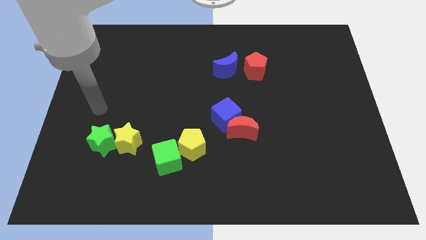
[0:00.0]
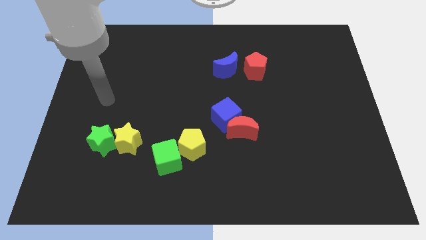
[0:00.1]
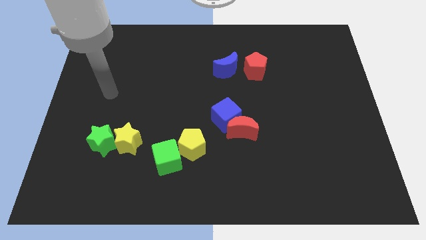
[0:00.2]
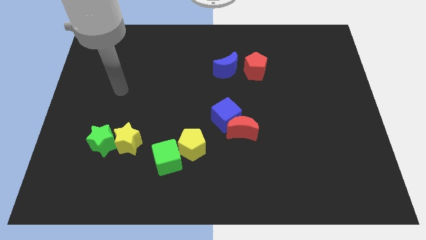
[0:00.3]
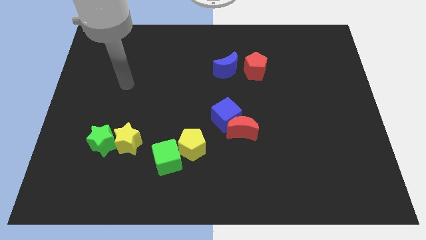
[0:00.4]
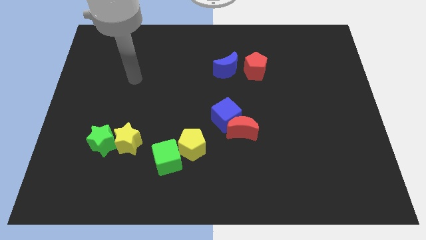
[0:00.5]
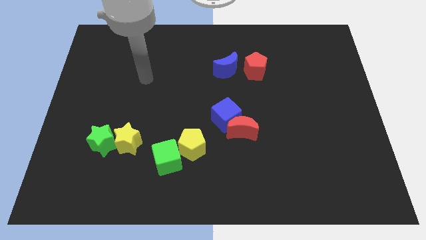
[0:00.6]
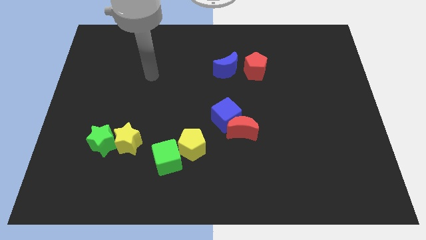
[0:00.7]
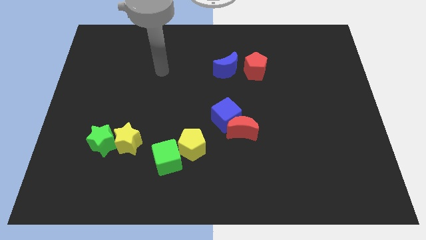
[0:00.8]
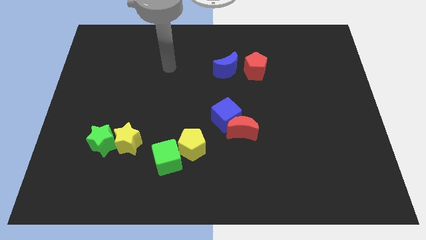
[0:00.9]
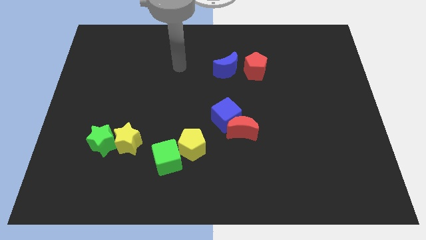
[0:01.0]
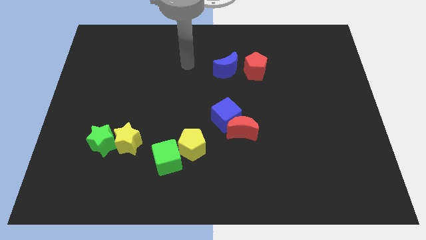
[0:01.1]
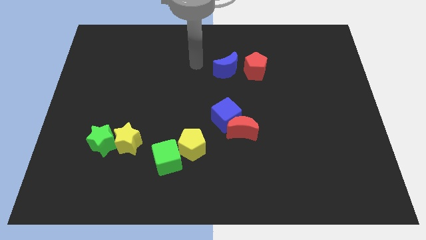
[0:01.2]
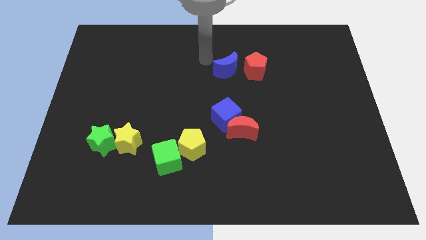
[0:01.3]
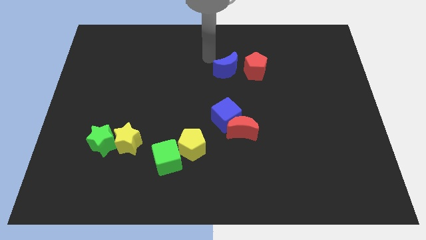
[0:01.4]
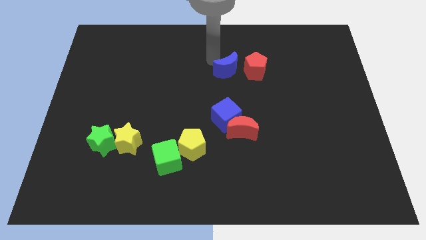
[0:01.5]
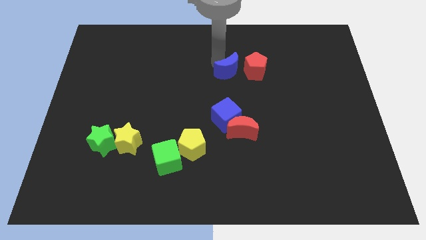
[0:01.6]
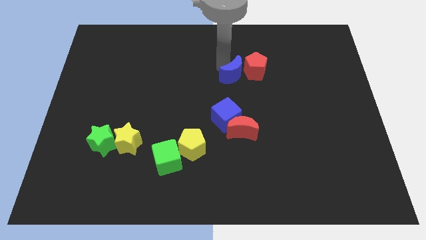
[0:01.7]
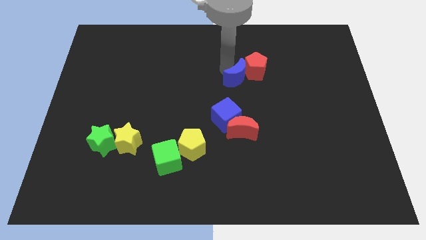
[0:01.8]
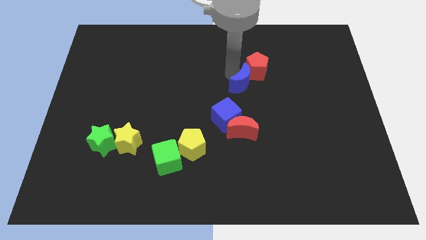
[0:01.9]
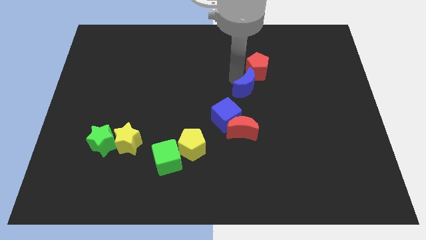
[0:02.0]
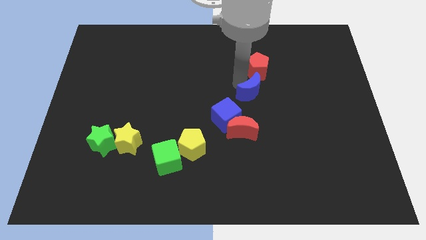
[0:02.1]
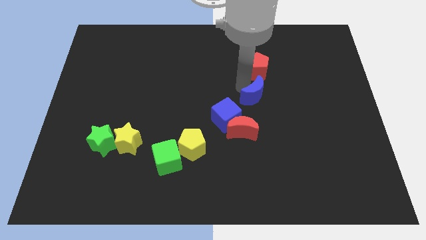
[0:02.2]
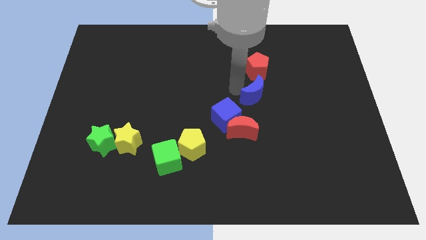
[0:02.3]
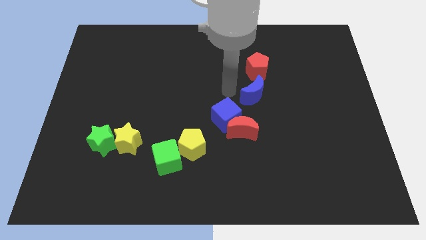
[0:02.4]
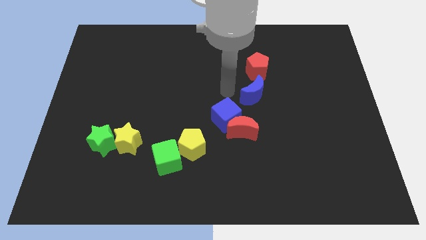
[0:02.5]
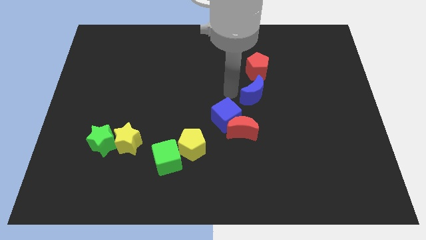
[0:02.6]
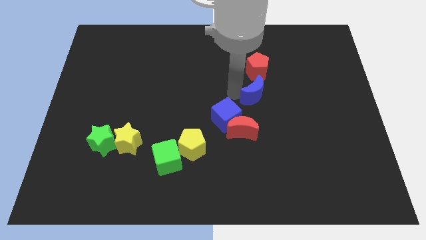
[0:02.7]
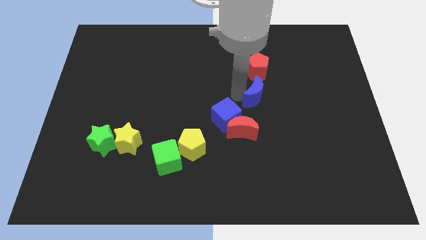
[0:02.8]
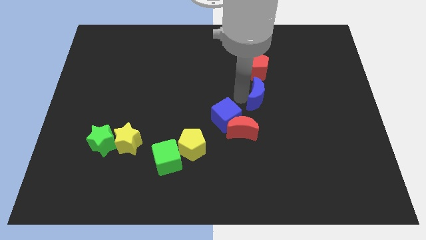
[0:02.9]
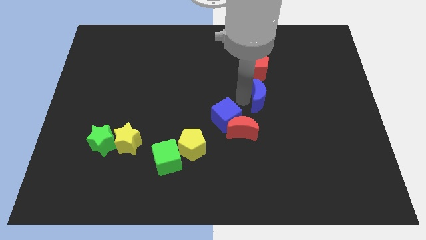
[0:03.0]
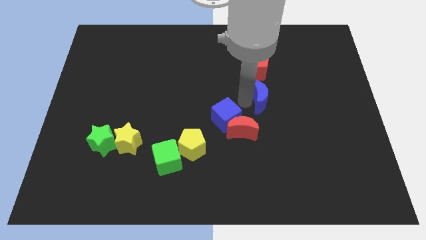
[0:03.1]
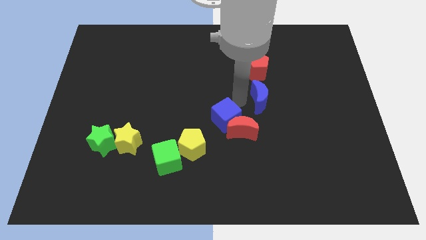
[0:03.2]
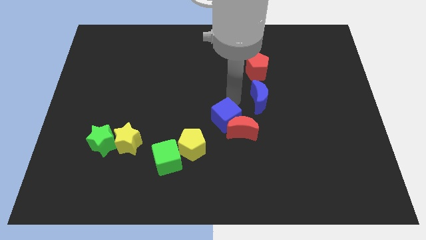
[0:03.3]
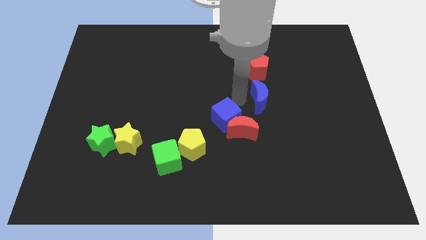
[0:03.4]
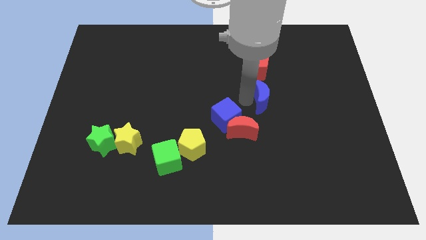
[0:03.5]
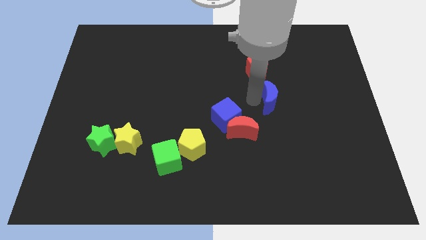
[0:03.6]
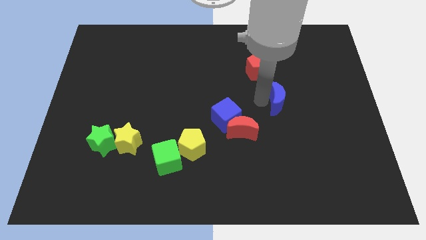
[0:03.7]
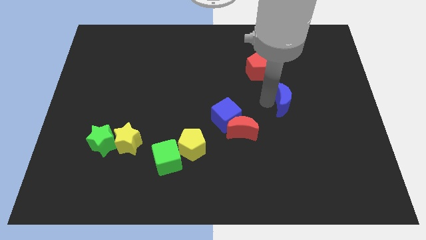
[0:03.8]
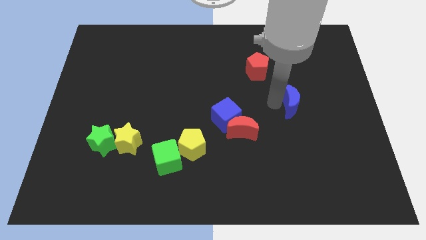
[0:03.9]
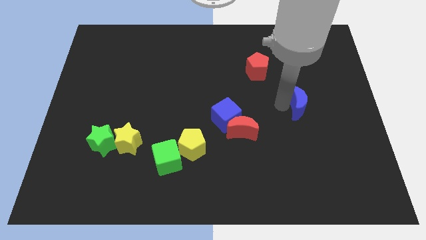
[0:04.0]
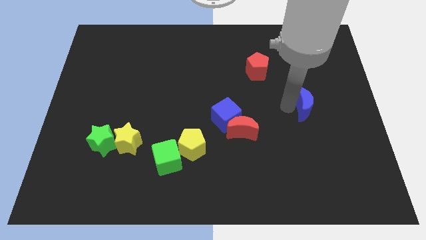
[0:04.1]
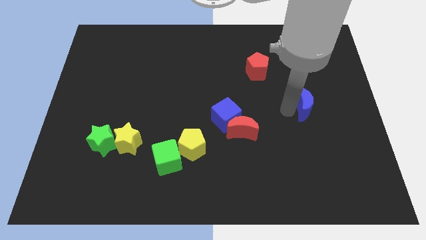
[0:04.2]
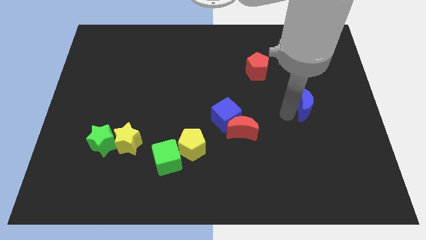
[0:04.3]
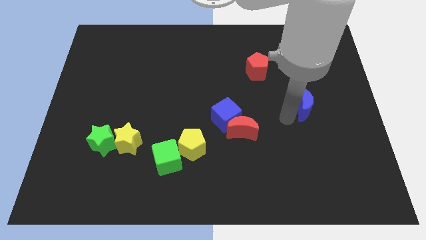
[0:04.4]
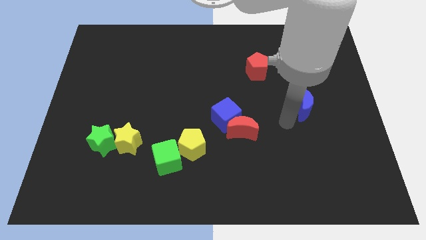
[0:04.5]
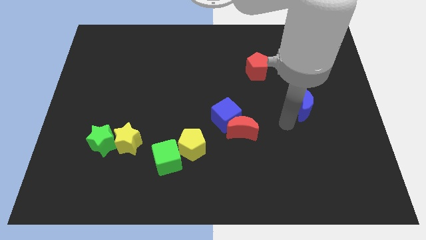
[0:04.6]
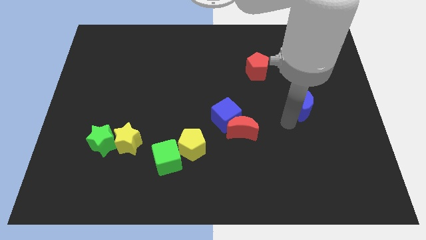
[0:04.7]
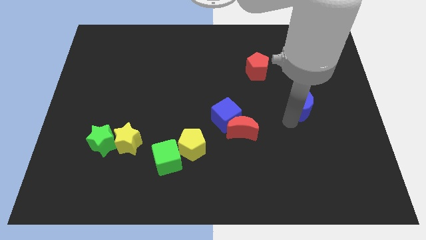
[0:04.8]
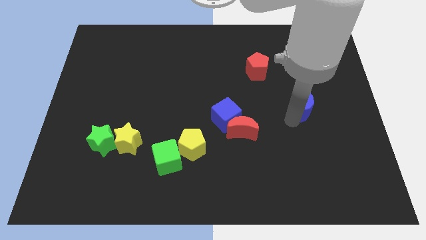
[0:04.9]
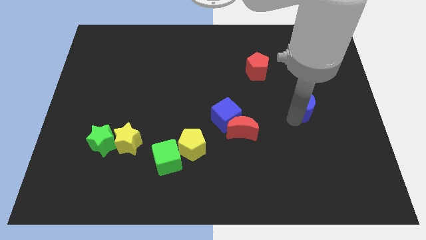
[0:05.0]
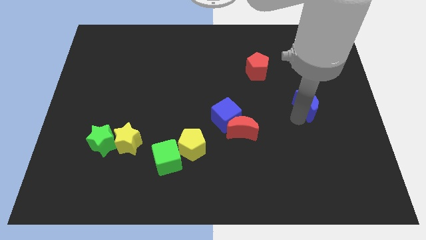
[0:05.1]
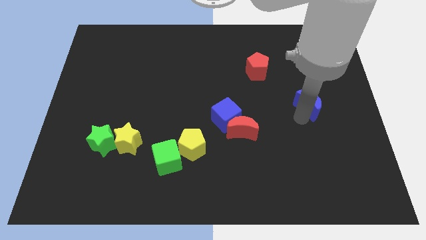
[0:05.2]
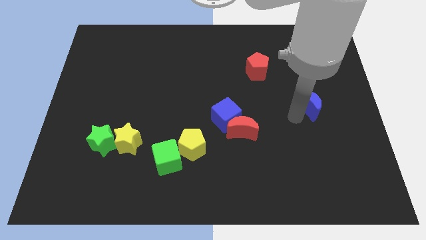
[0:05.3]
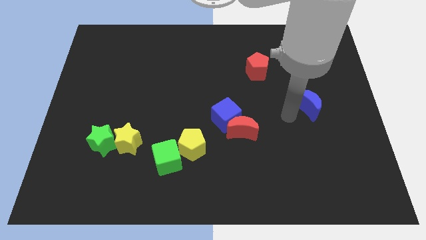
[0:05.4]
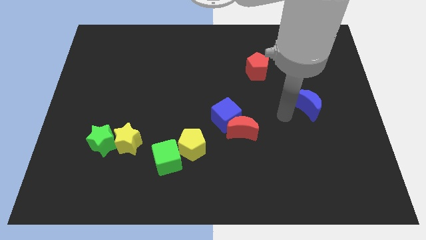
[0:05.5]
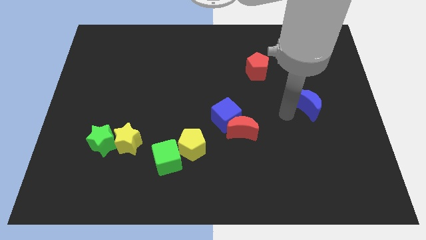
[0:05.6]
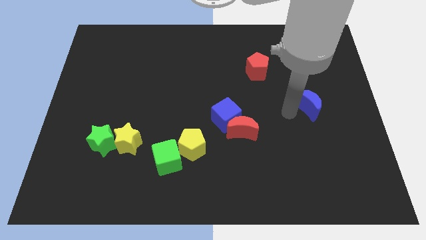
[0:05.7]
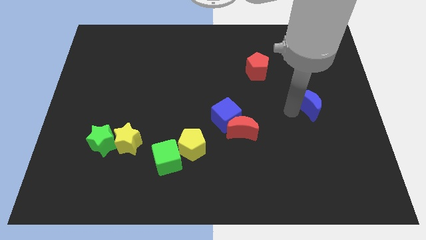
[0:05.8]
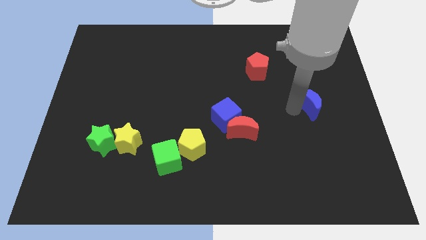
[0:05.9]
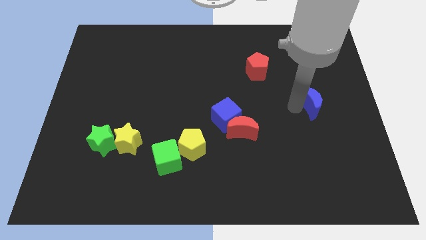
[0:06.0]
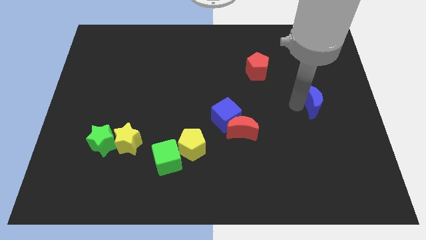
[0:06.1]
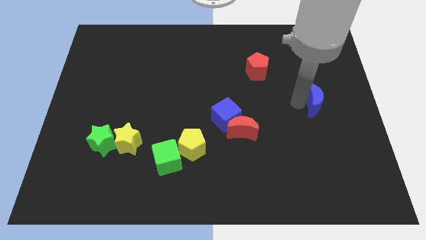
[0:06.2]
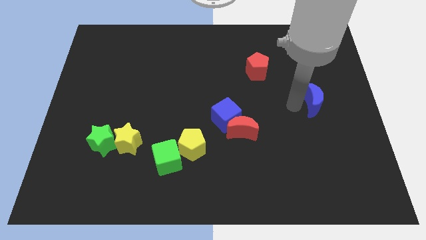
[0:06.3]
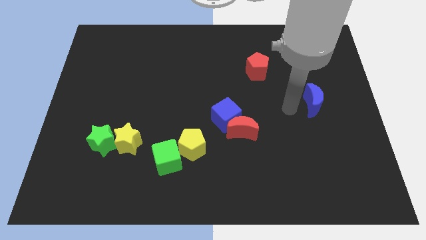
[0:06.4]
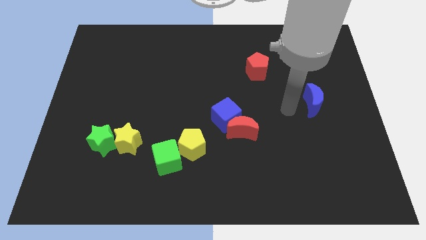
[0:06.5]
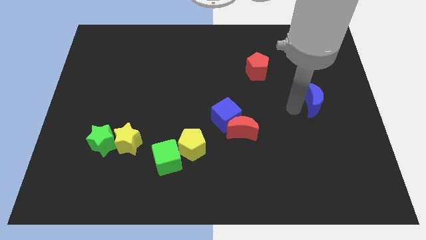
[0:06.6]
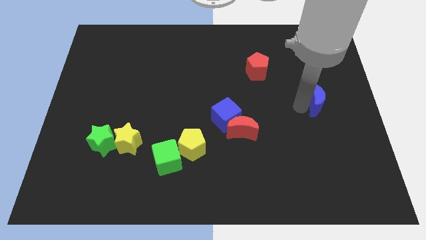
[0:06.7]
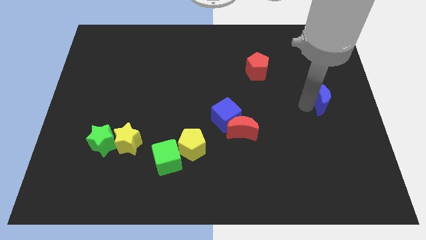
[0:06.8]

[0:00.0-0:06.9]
push the blue moon to the right side

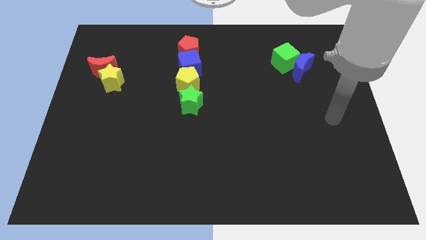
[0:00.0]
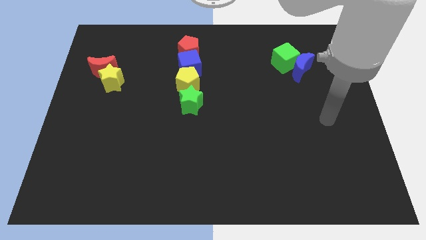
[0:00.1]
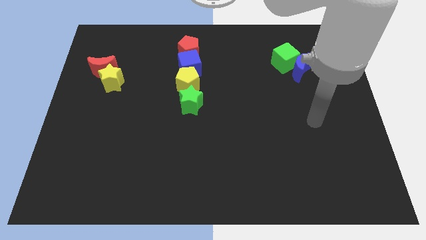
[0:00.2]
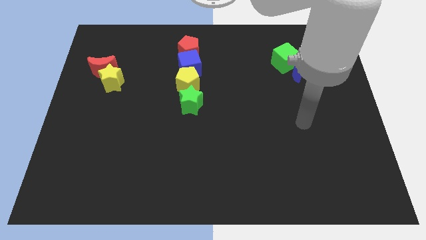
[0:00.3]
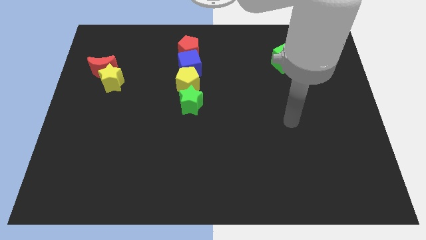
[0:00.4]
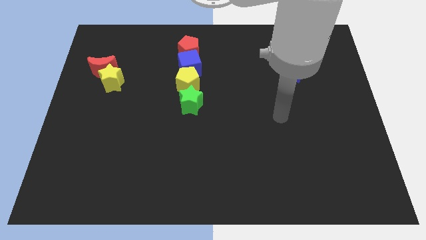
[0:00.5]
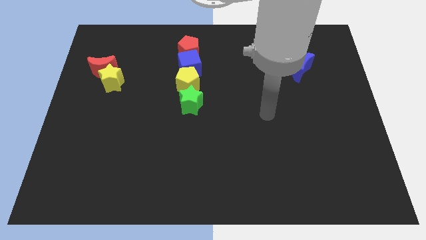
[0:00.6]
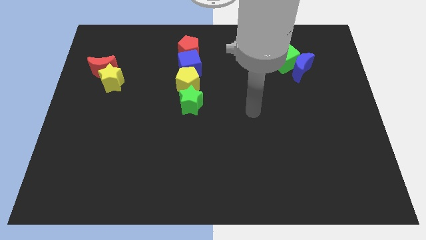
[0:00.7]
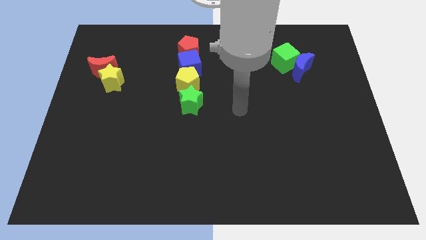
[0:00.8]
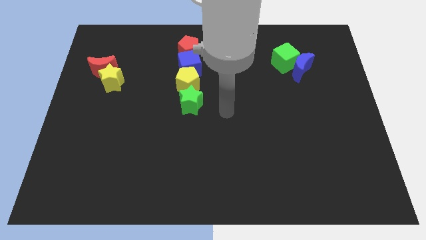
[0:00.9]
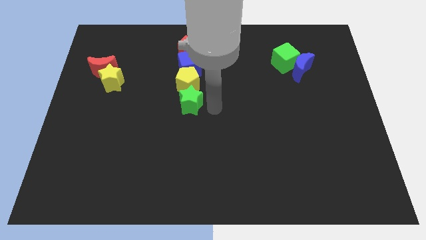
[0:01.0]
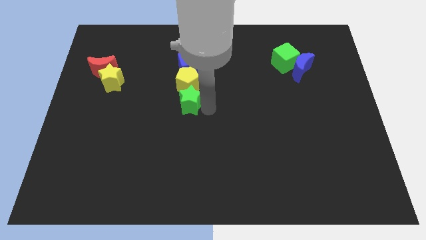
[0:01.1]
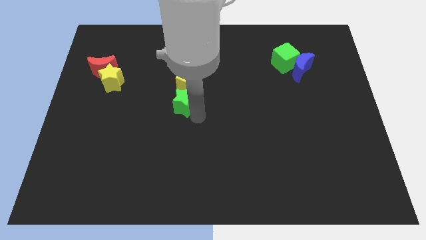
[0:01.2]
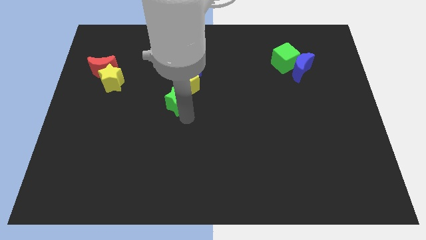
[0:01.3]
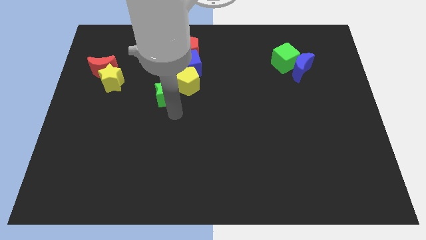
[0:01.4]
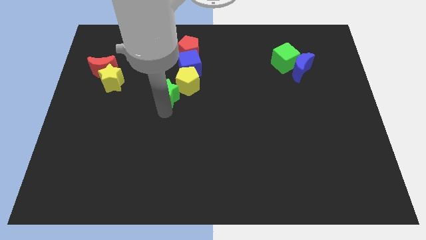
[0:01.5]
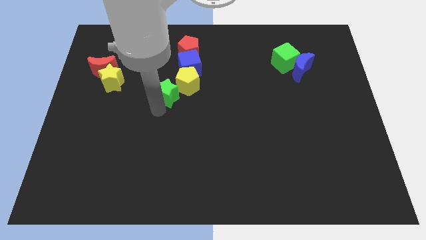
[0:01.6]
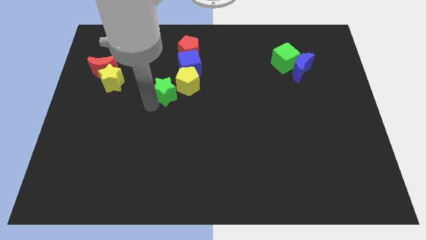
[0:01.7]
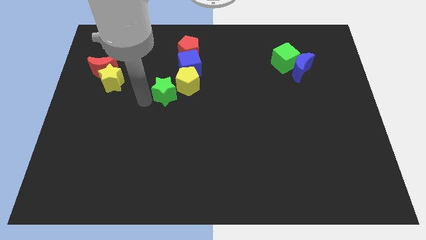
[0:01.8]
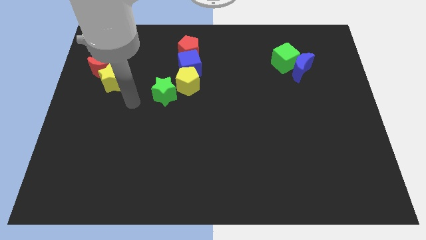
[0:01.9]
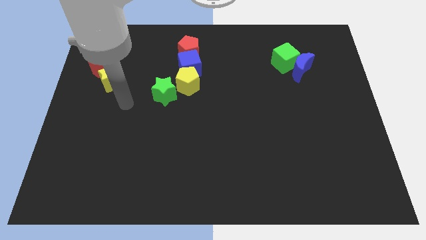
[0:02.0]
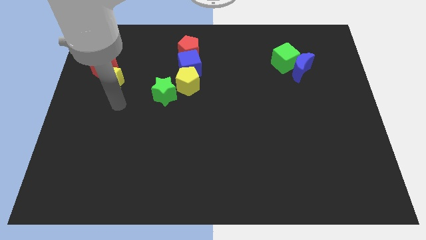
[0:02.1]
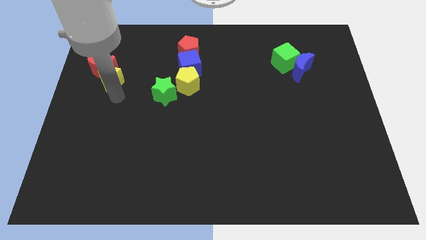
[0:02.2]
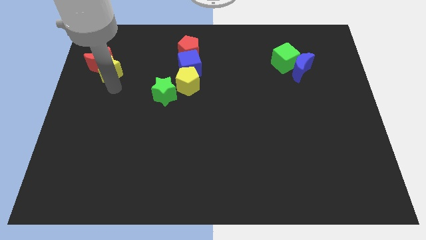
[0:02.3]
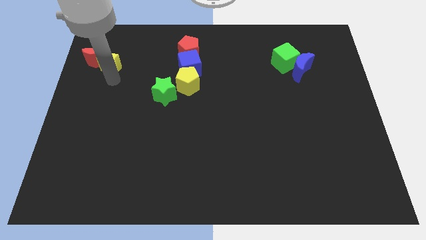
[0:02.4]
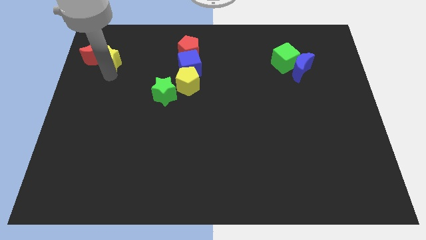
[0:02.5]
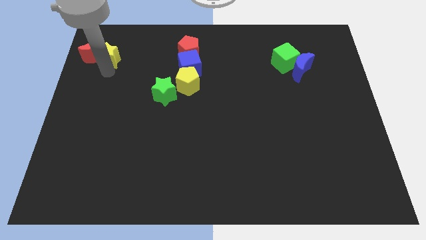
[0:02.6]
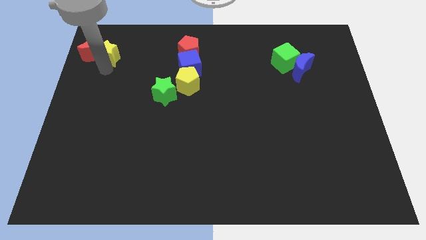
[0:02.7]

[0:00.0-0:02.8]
slide the red moon to the top left
